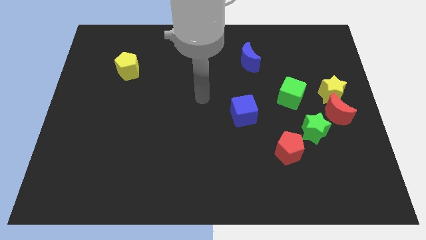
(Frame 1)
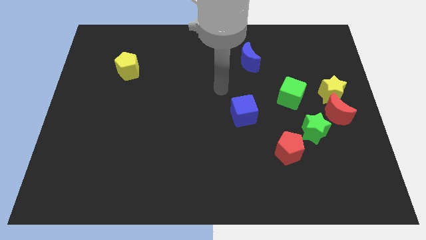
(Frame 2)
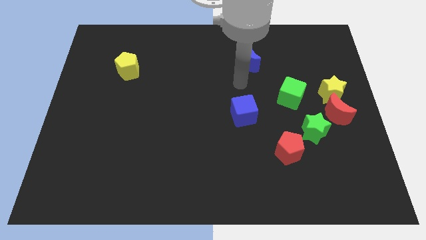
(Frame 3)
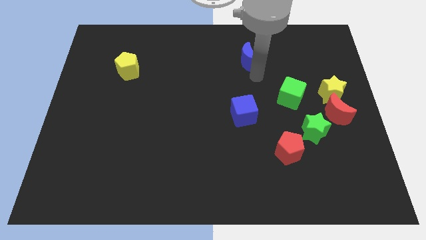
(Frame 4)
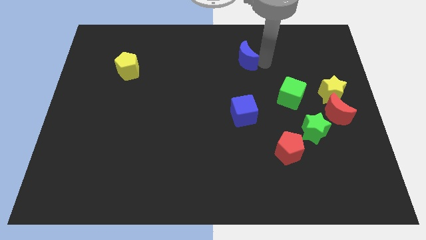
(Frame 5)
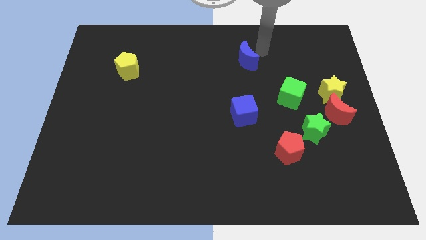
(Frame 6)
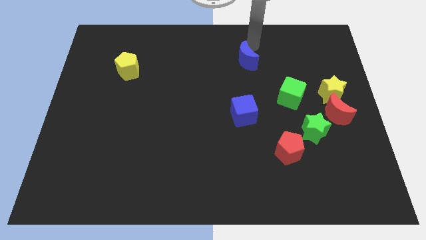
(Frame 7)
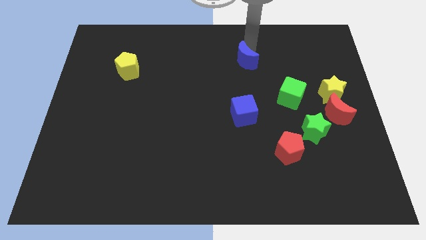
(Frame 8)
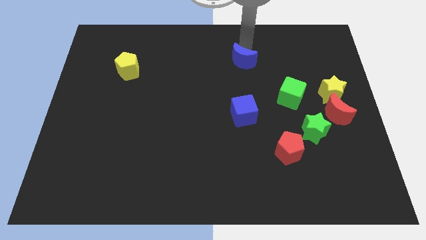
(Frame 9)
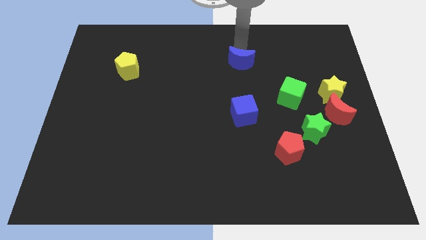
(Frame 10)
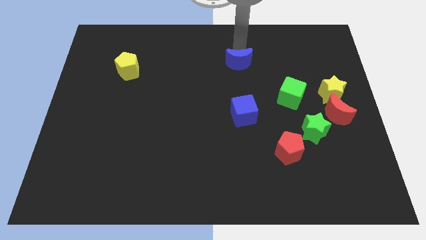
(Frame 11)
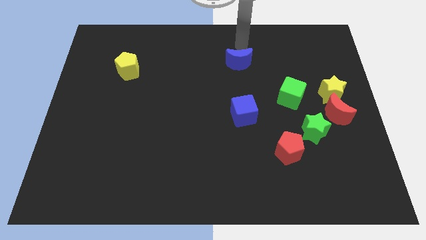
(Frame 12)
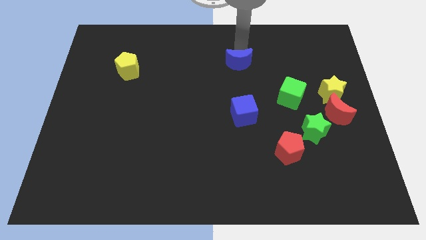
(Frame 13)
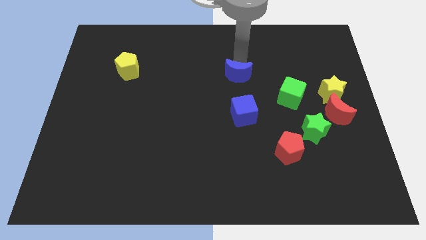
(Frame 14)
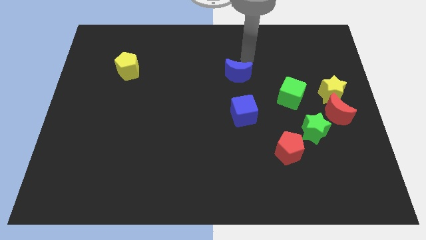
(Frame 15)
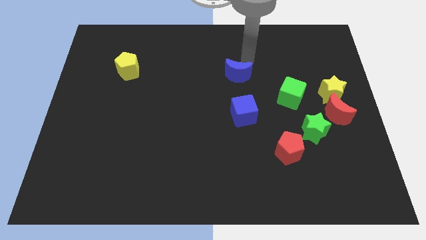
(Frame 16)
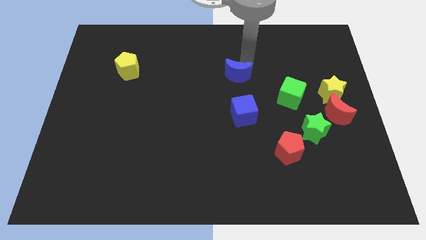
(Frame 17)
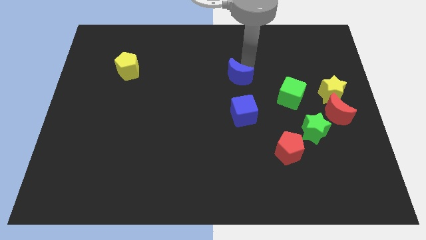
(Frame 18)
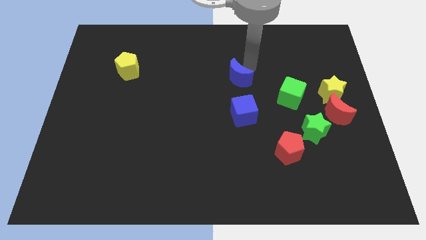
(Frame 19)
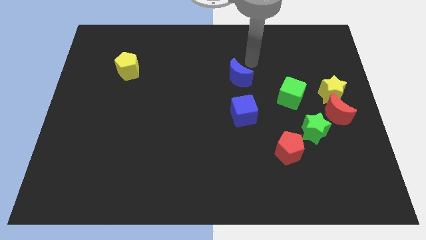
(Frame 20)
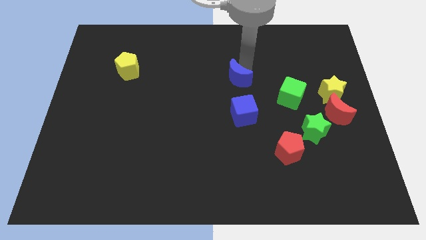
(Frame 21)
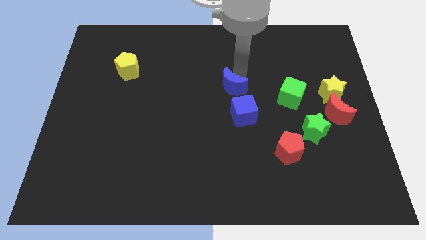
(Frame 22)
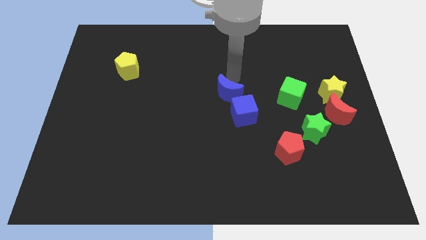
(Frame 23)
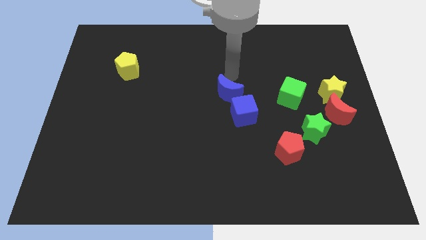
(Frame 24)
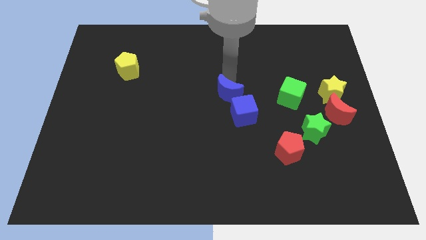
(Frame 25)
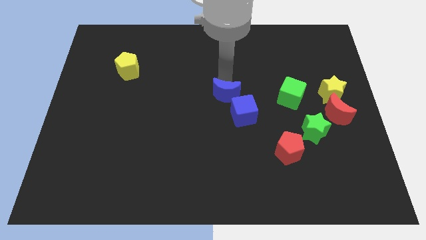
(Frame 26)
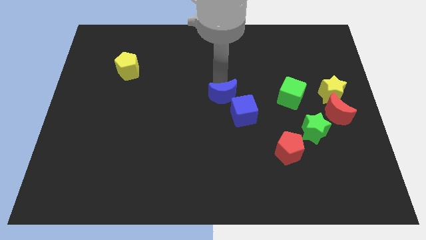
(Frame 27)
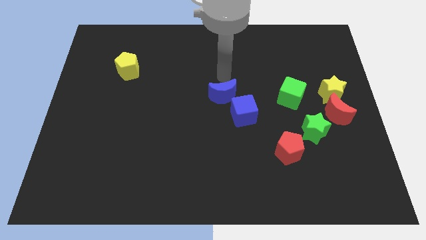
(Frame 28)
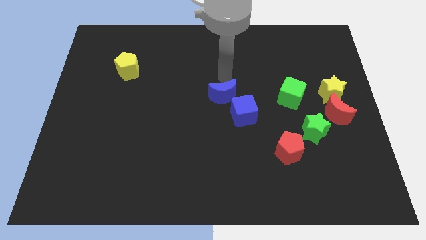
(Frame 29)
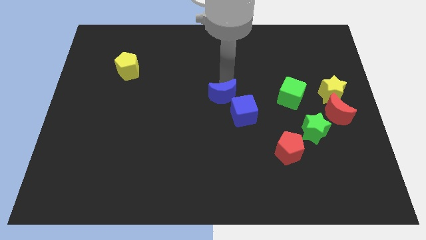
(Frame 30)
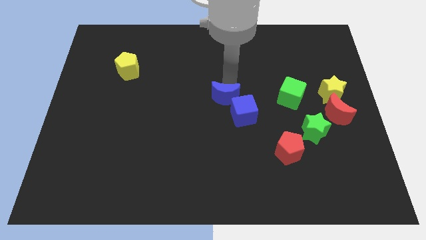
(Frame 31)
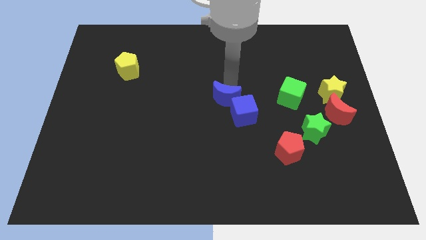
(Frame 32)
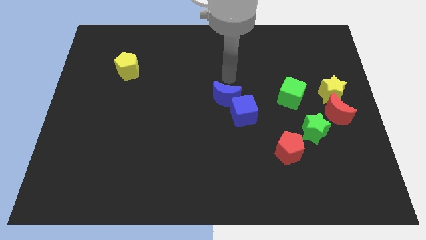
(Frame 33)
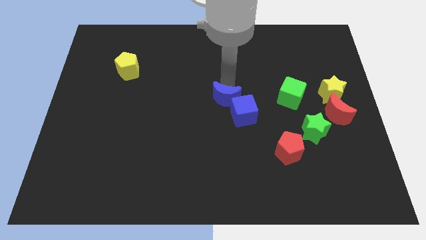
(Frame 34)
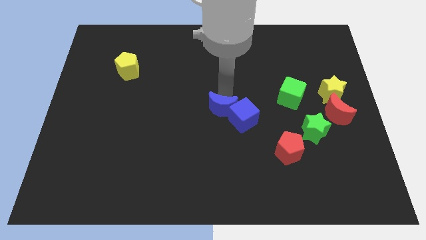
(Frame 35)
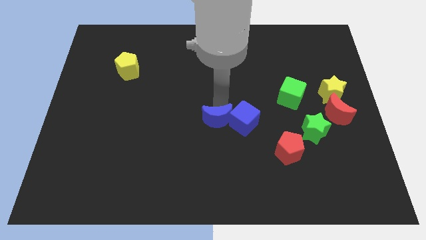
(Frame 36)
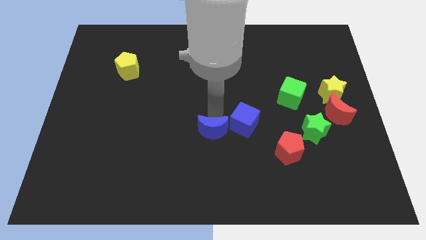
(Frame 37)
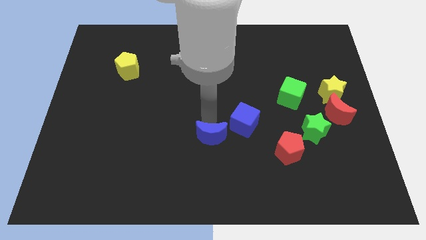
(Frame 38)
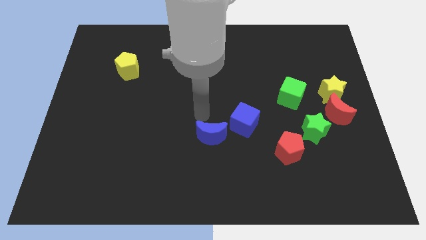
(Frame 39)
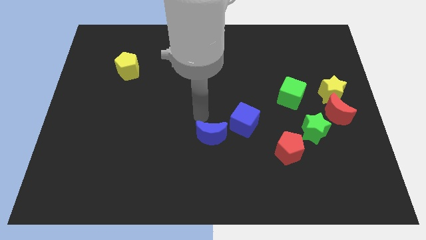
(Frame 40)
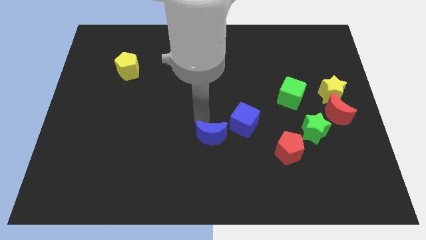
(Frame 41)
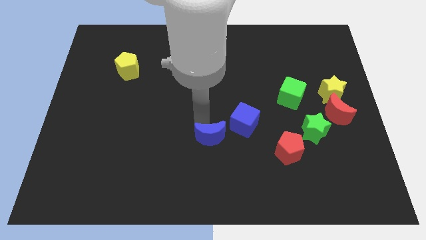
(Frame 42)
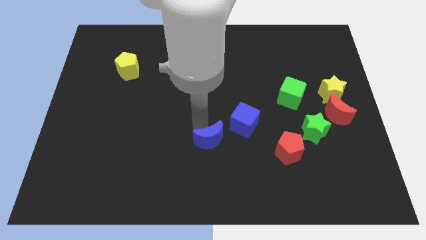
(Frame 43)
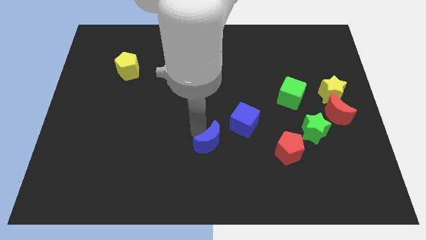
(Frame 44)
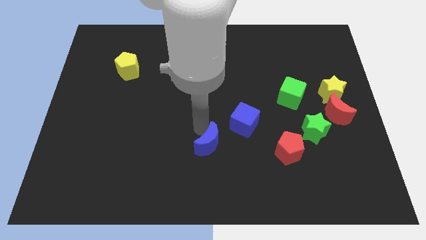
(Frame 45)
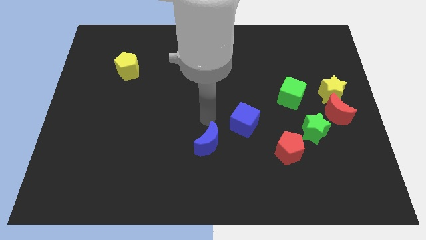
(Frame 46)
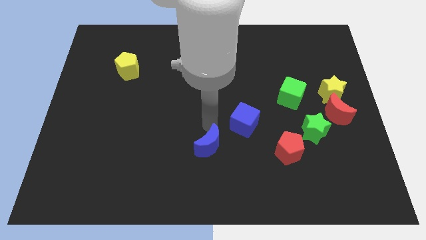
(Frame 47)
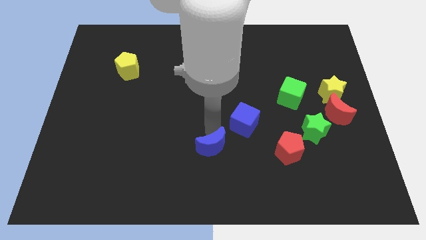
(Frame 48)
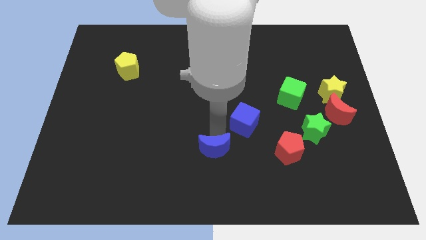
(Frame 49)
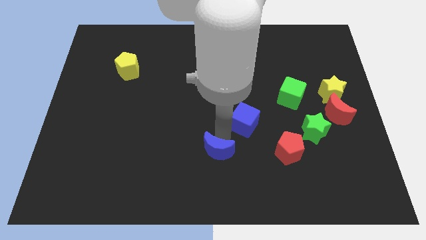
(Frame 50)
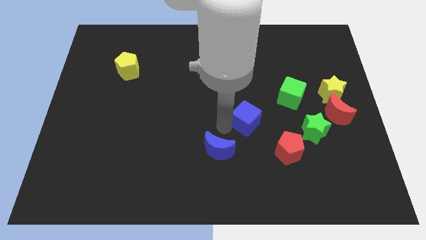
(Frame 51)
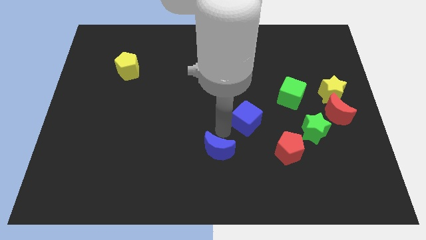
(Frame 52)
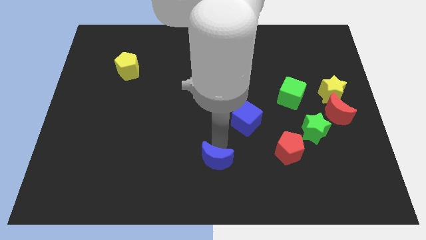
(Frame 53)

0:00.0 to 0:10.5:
push the blue moon to the bottom side

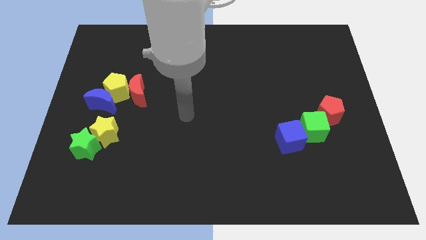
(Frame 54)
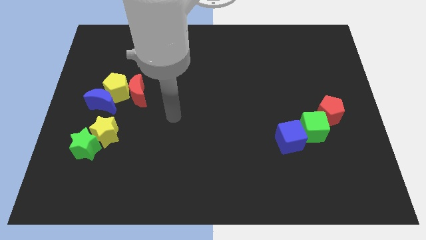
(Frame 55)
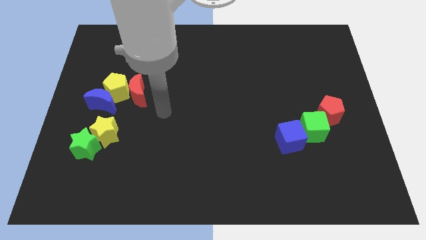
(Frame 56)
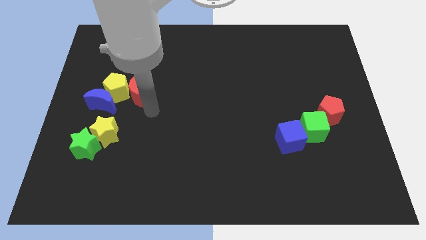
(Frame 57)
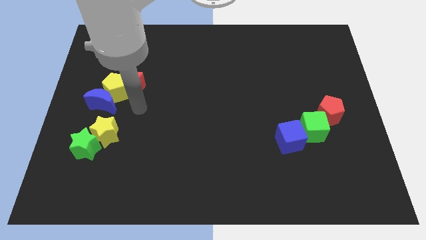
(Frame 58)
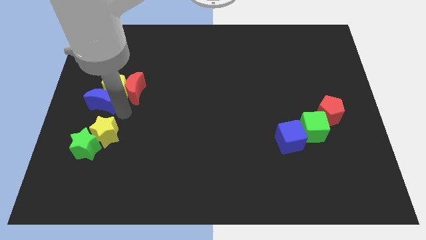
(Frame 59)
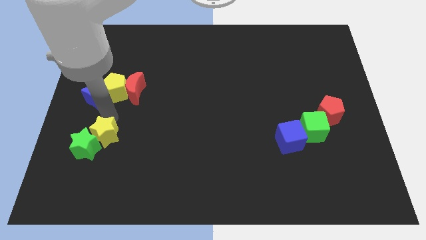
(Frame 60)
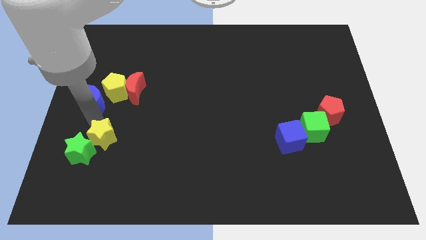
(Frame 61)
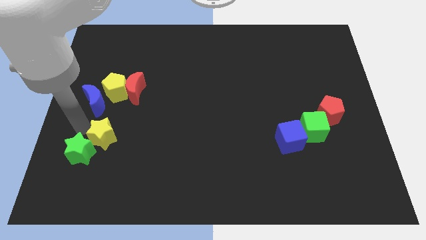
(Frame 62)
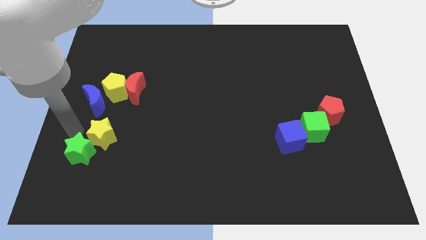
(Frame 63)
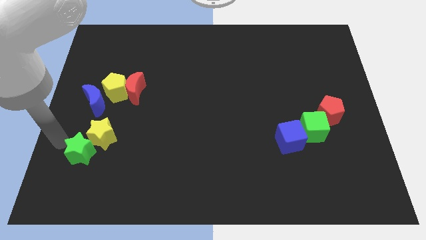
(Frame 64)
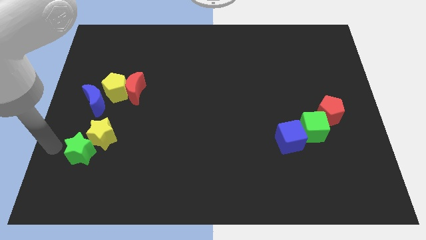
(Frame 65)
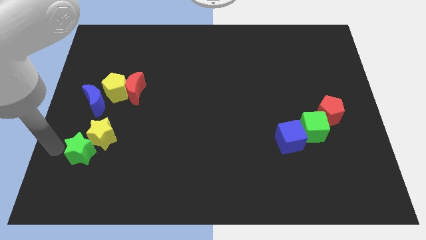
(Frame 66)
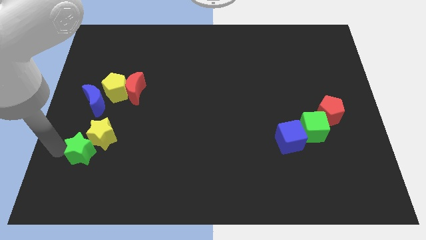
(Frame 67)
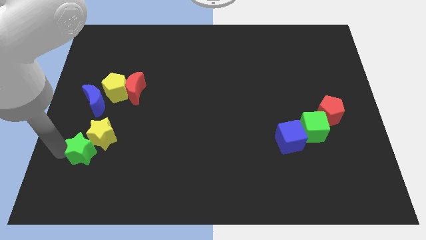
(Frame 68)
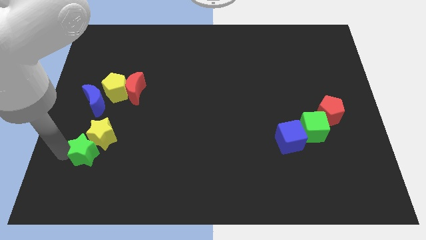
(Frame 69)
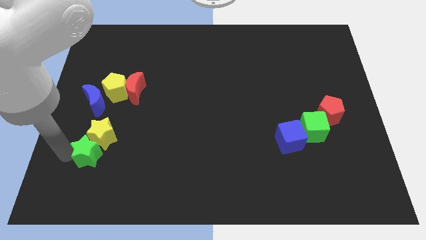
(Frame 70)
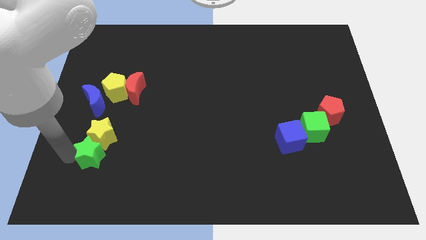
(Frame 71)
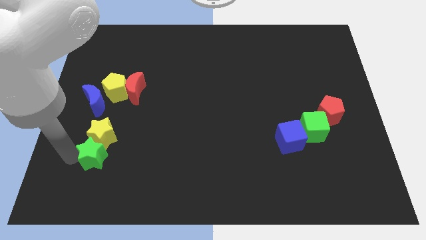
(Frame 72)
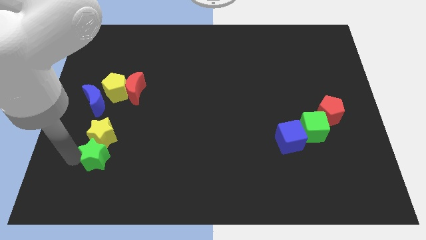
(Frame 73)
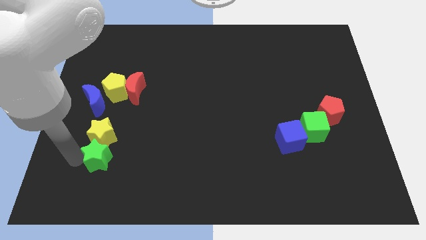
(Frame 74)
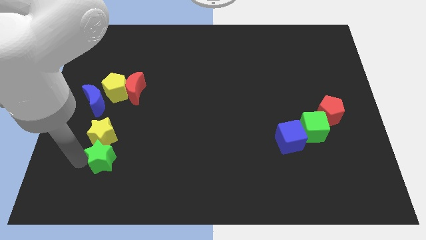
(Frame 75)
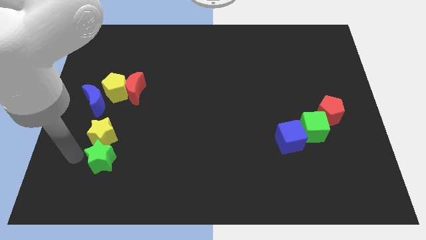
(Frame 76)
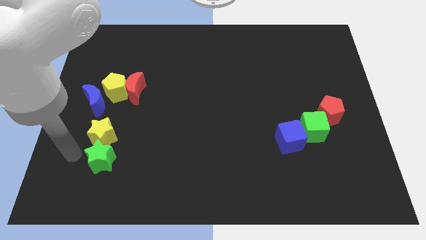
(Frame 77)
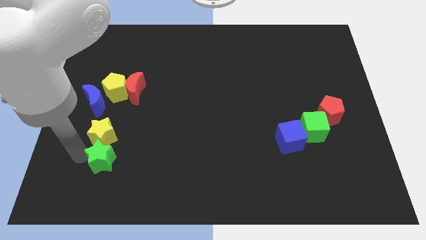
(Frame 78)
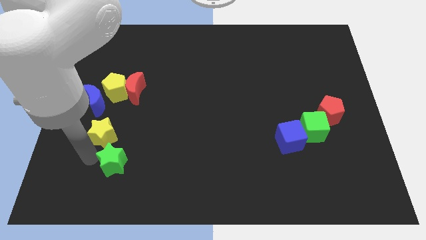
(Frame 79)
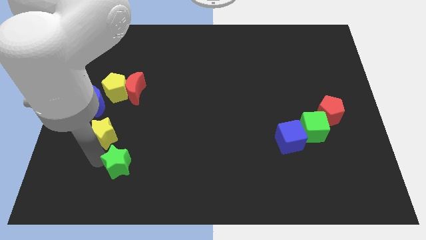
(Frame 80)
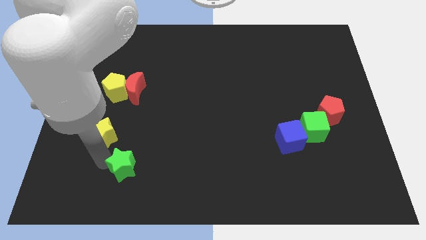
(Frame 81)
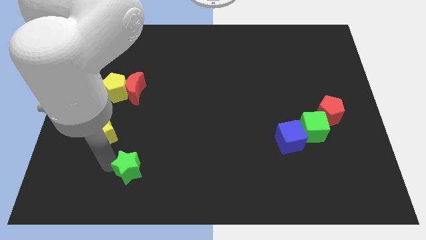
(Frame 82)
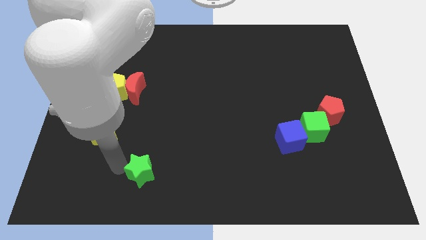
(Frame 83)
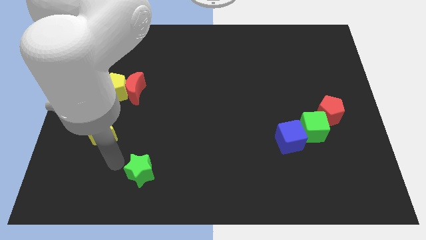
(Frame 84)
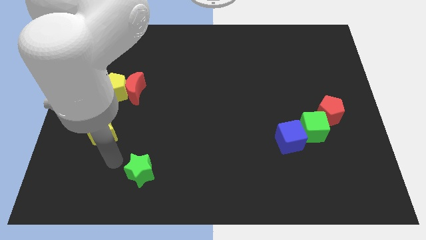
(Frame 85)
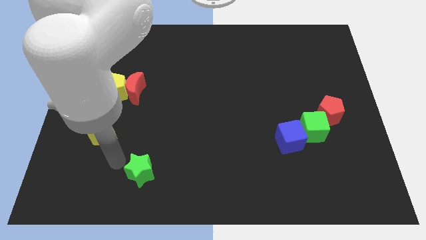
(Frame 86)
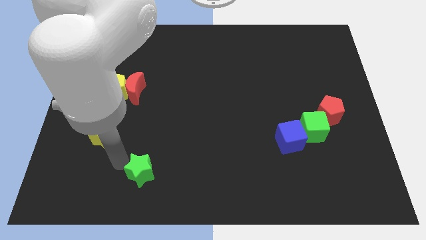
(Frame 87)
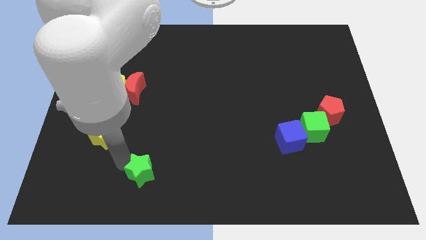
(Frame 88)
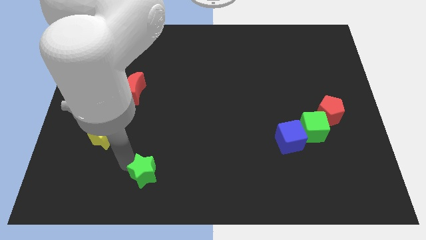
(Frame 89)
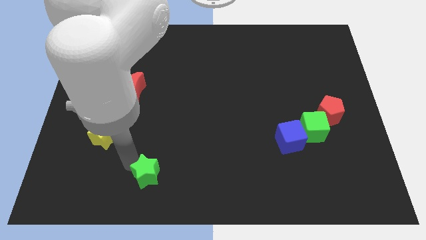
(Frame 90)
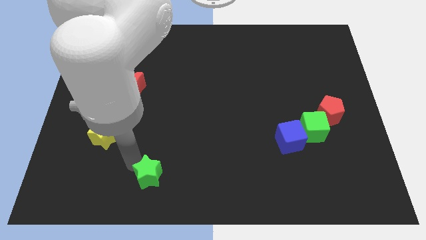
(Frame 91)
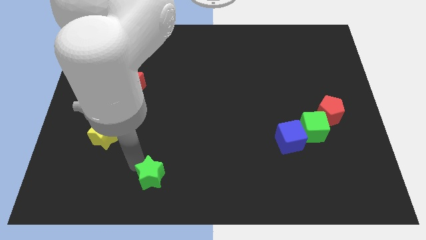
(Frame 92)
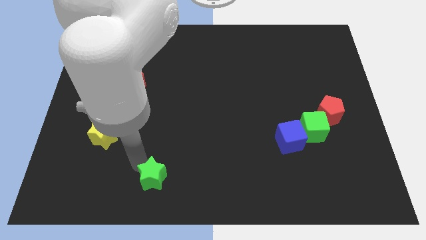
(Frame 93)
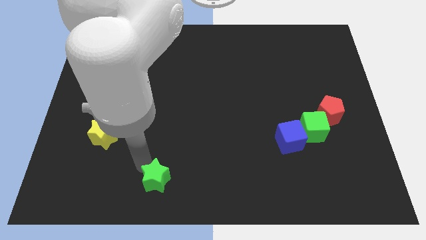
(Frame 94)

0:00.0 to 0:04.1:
slide the green star to the bottom side
